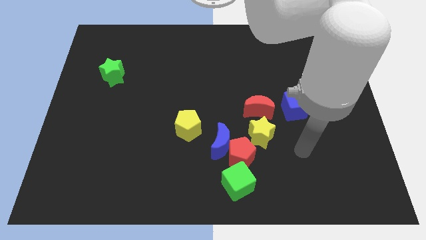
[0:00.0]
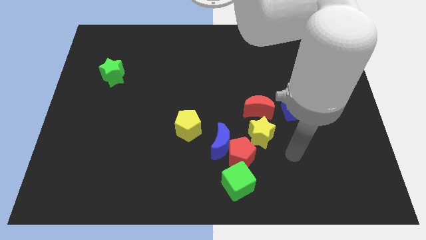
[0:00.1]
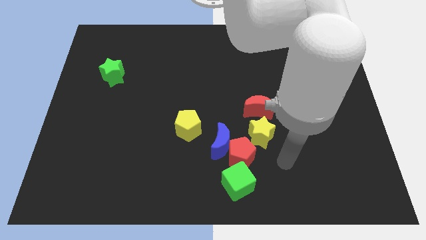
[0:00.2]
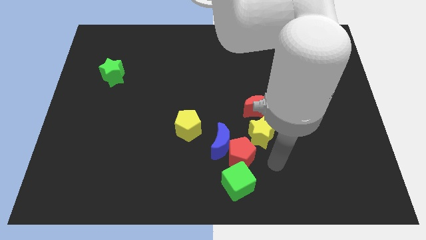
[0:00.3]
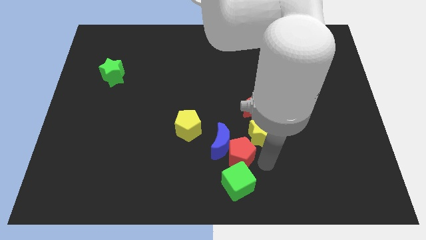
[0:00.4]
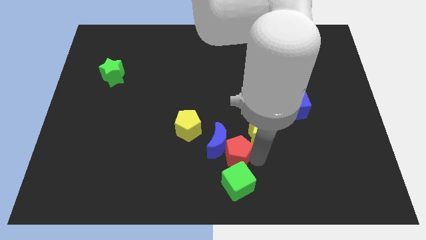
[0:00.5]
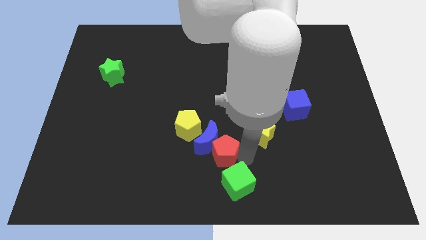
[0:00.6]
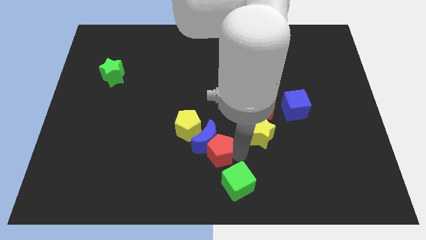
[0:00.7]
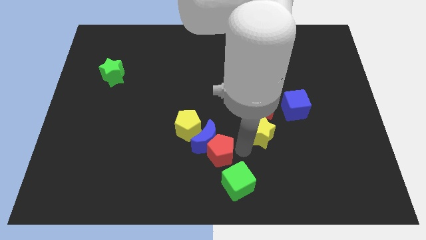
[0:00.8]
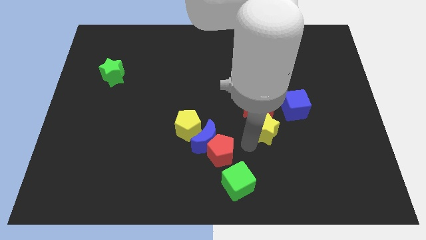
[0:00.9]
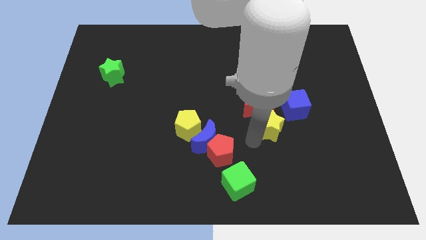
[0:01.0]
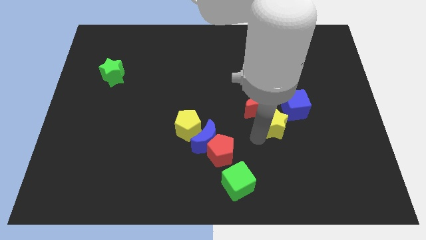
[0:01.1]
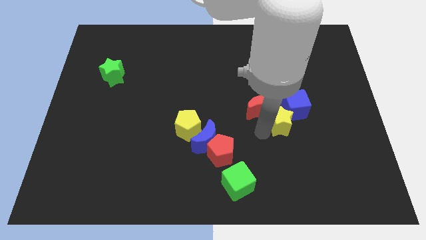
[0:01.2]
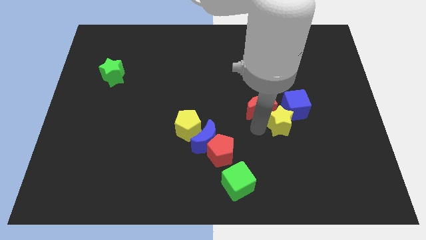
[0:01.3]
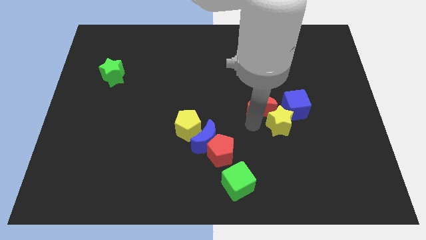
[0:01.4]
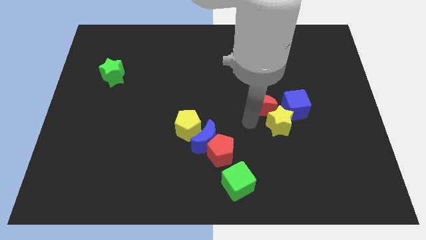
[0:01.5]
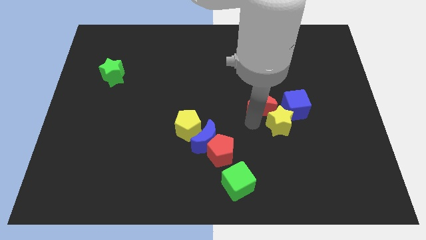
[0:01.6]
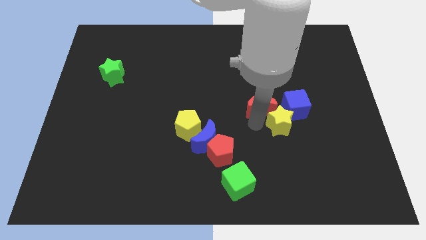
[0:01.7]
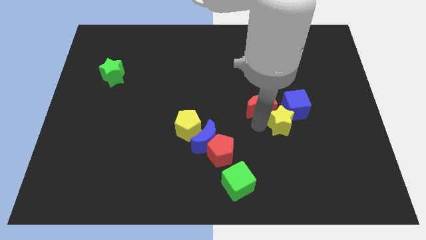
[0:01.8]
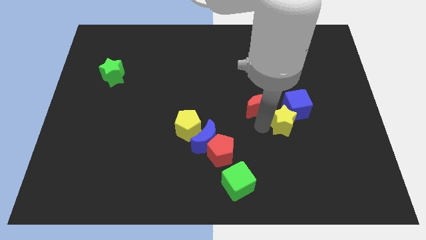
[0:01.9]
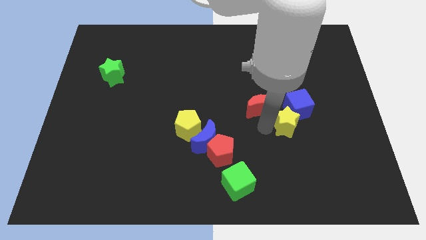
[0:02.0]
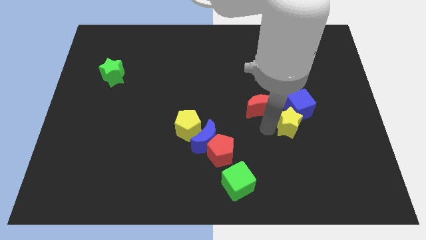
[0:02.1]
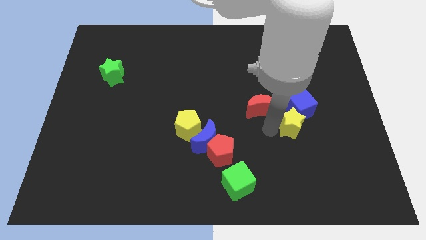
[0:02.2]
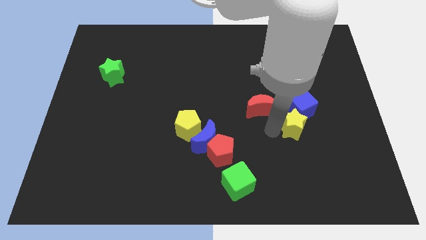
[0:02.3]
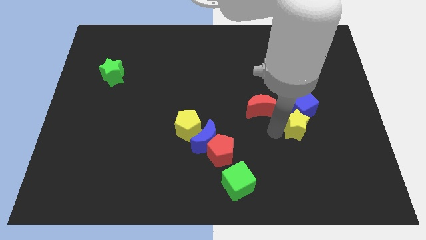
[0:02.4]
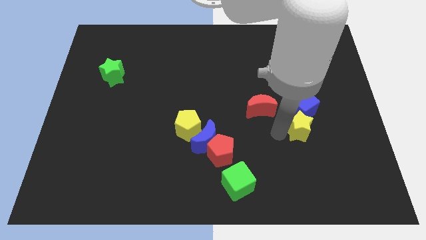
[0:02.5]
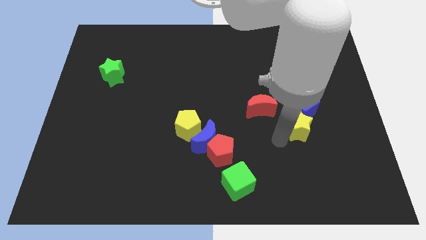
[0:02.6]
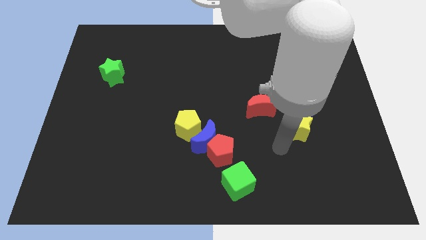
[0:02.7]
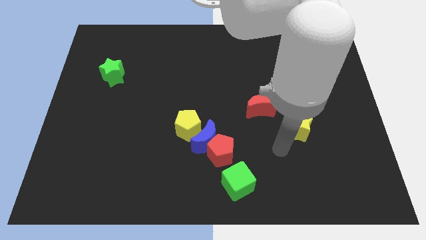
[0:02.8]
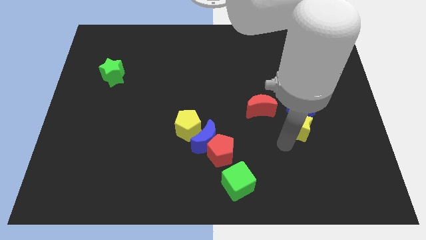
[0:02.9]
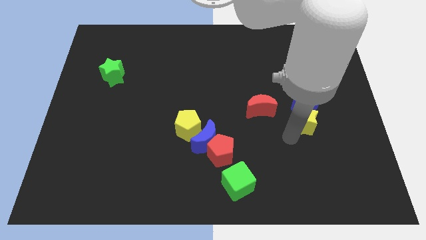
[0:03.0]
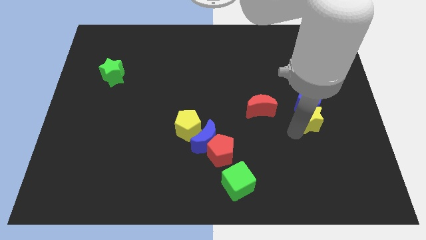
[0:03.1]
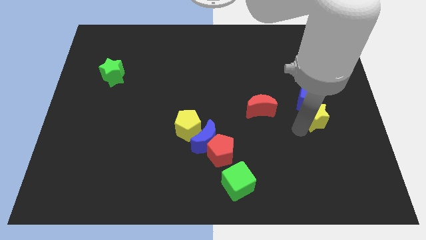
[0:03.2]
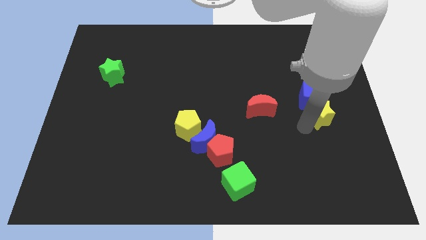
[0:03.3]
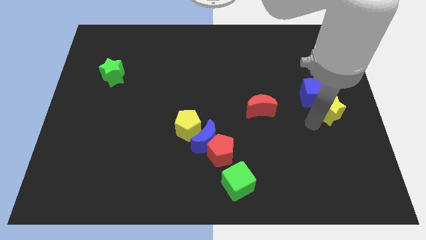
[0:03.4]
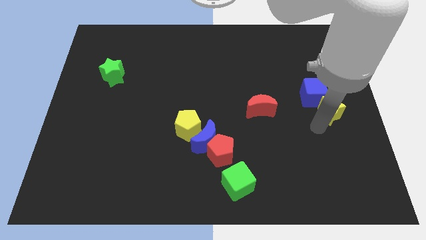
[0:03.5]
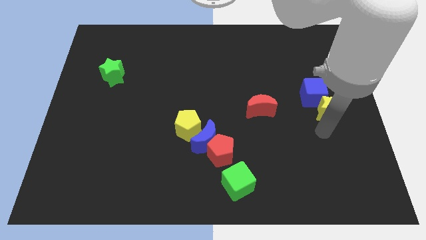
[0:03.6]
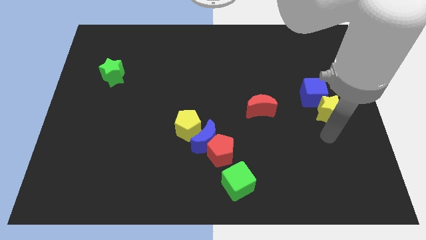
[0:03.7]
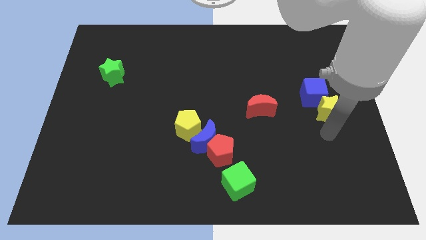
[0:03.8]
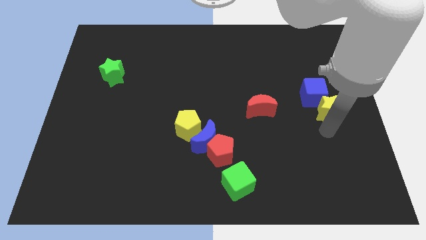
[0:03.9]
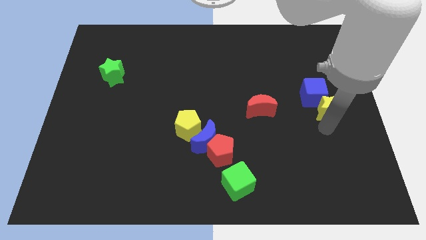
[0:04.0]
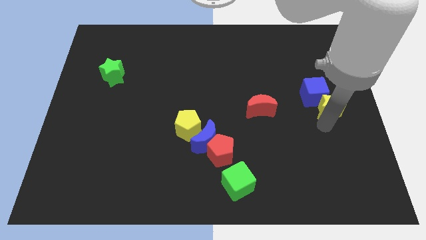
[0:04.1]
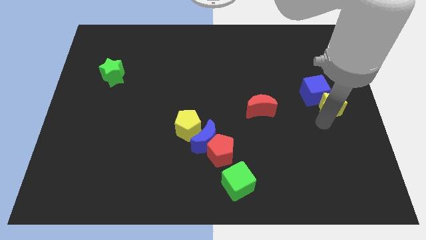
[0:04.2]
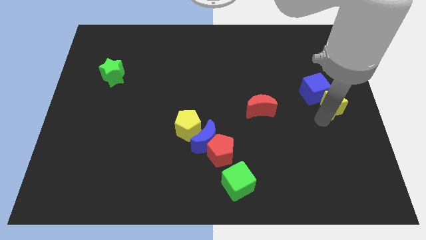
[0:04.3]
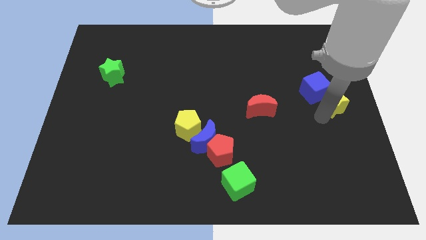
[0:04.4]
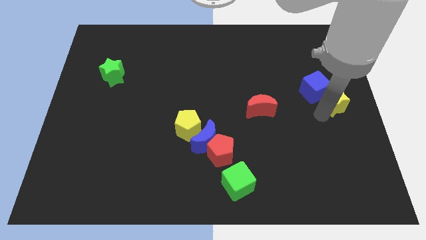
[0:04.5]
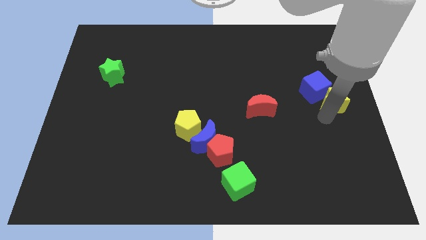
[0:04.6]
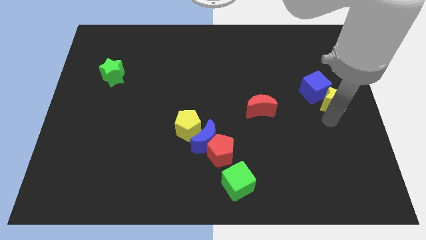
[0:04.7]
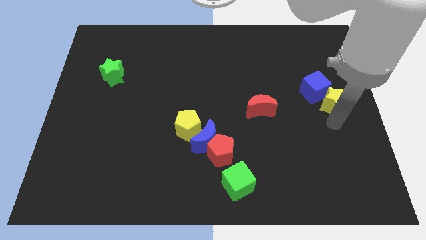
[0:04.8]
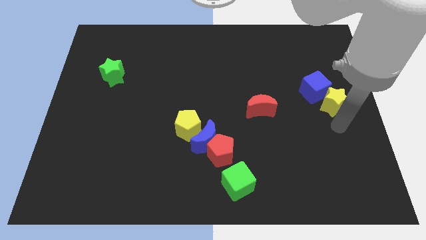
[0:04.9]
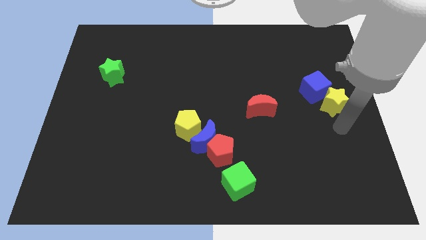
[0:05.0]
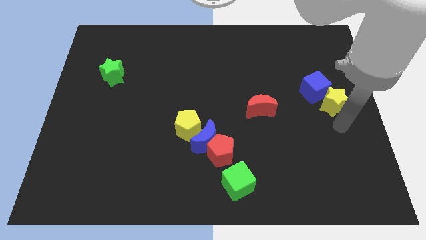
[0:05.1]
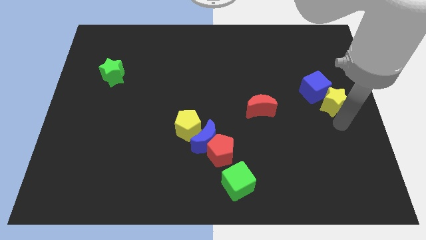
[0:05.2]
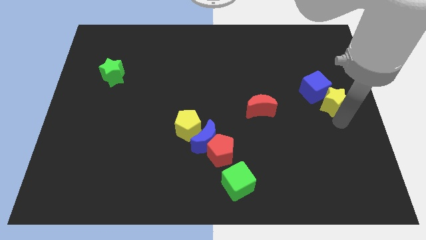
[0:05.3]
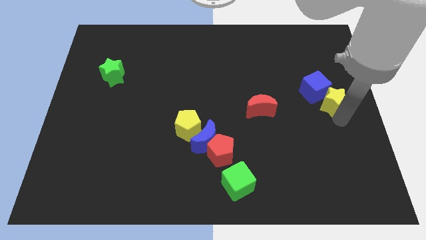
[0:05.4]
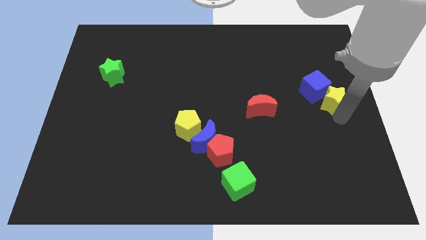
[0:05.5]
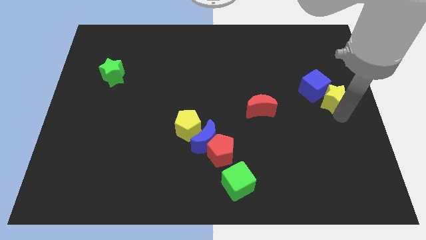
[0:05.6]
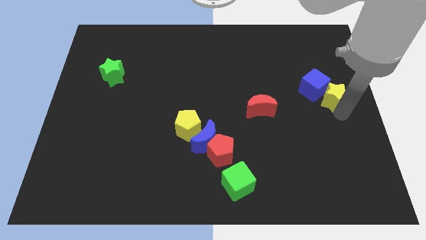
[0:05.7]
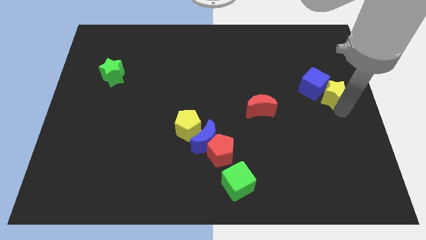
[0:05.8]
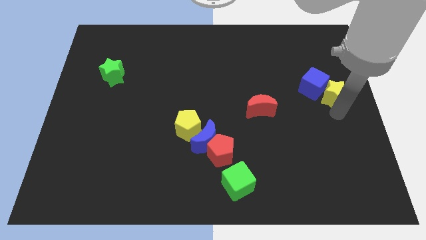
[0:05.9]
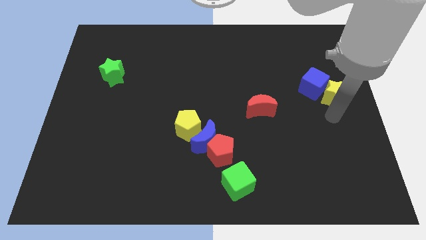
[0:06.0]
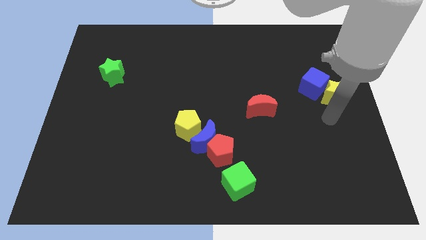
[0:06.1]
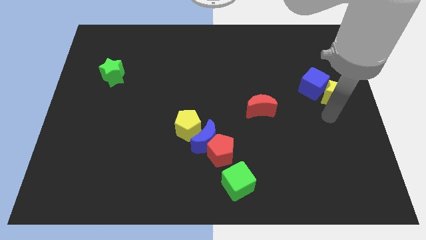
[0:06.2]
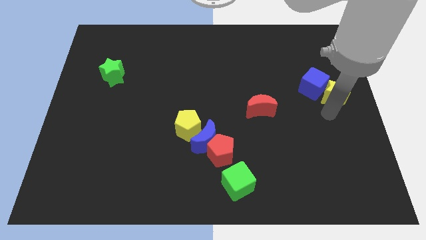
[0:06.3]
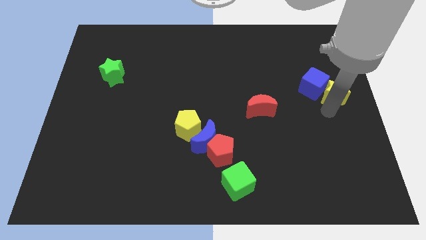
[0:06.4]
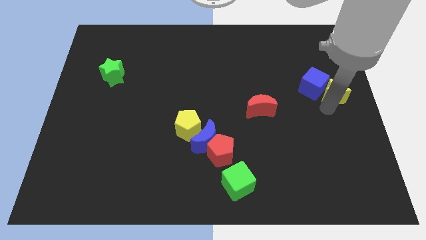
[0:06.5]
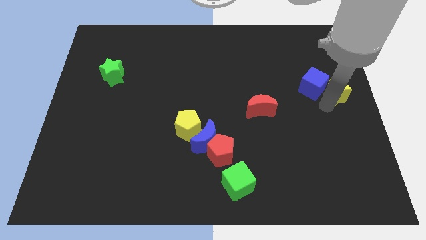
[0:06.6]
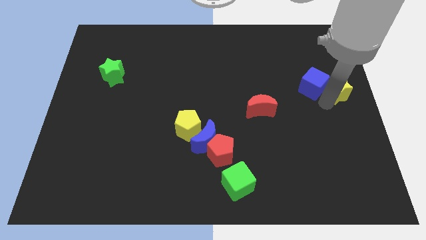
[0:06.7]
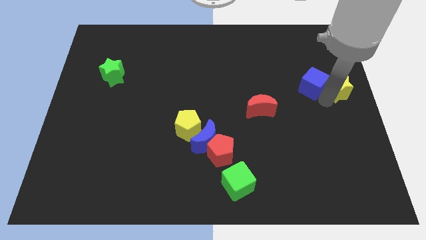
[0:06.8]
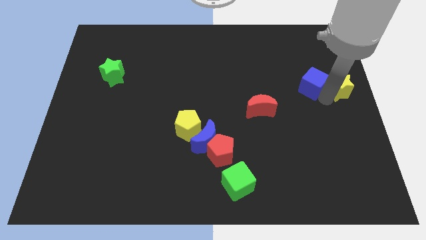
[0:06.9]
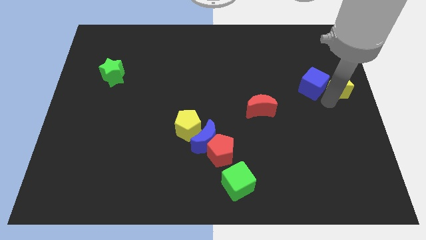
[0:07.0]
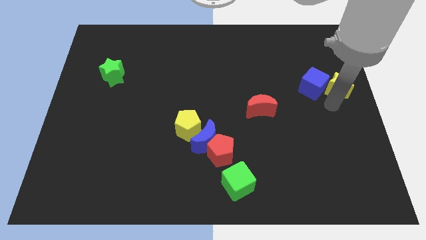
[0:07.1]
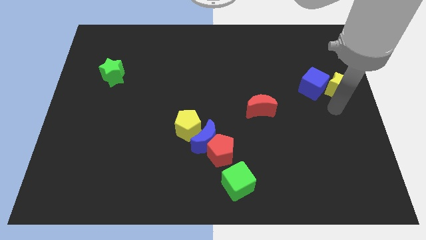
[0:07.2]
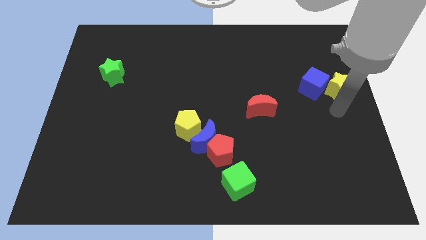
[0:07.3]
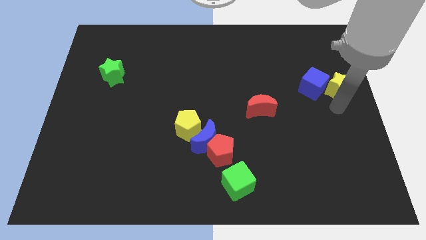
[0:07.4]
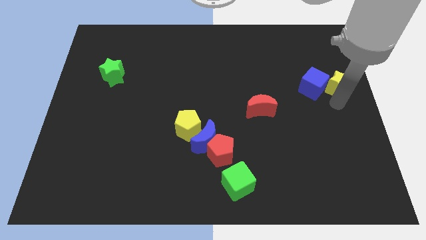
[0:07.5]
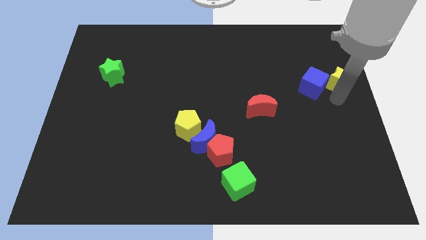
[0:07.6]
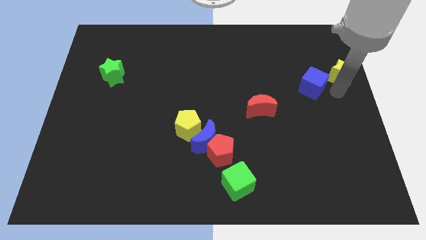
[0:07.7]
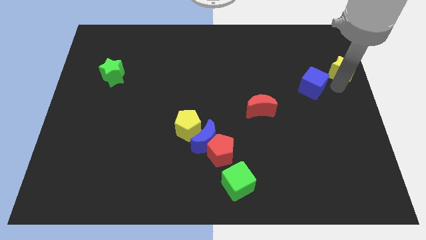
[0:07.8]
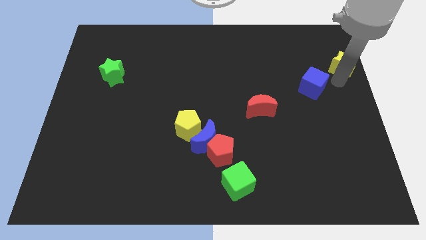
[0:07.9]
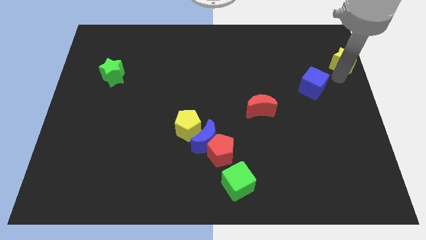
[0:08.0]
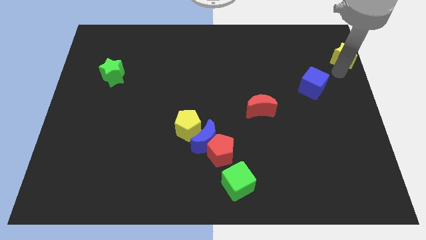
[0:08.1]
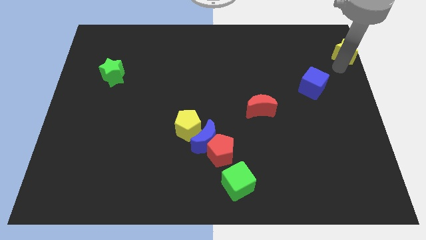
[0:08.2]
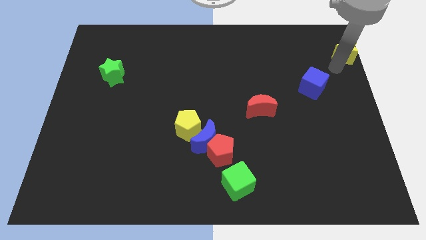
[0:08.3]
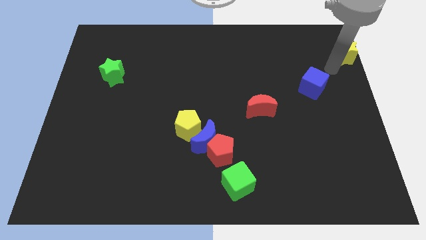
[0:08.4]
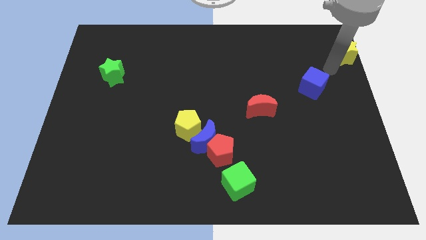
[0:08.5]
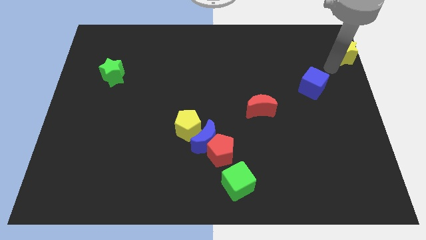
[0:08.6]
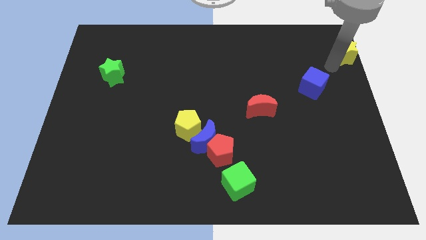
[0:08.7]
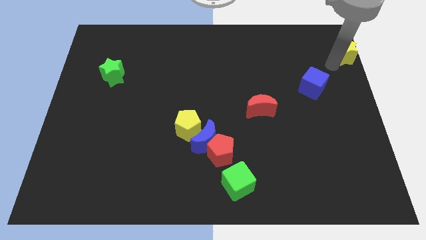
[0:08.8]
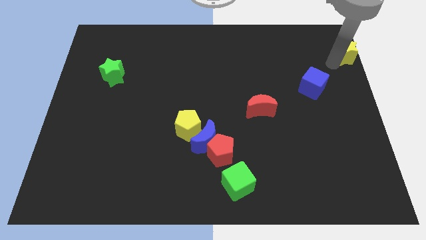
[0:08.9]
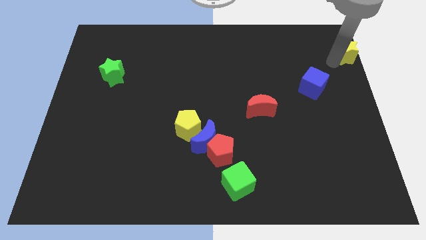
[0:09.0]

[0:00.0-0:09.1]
slide the yellow star to the top right
